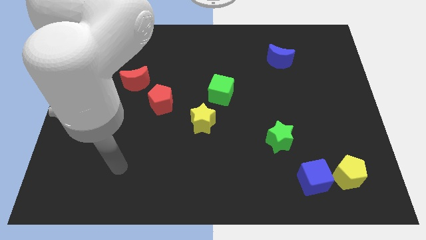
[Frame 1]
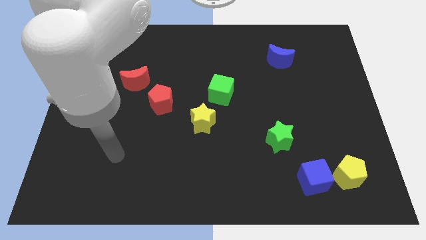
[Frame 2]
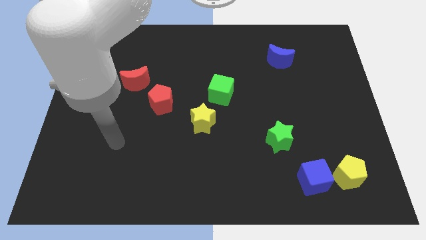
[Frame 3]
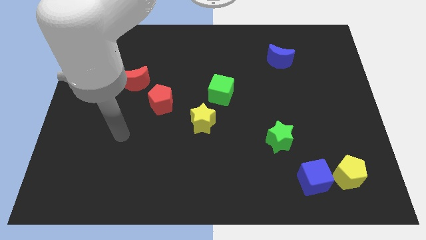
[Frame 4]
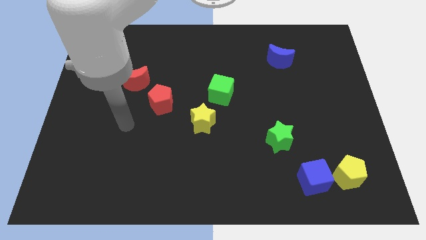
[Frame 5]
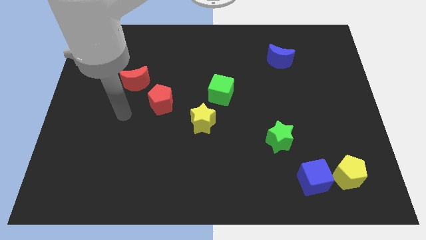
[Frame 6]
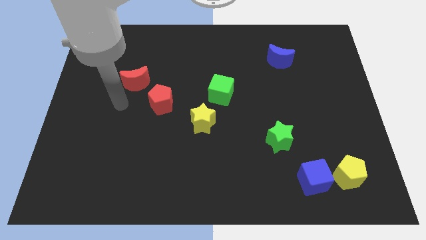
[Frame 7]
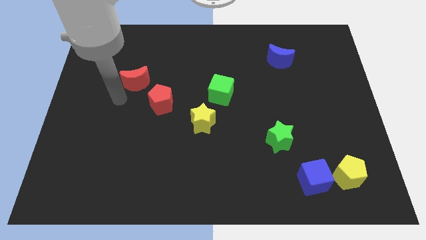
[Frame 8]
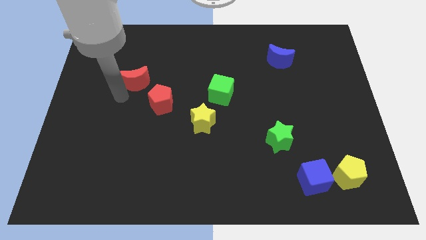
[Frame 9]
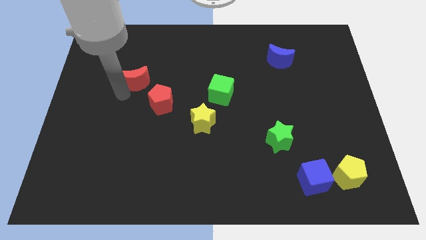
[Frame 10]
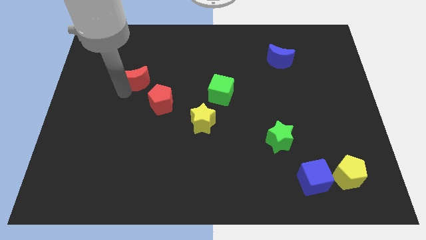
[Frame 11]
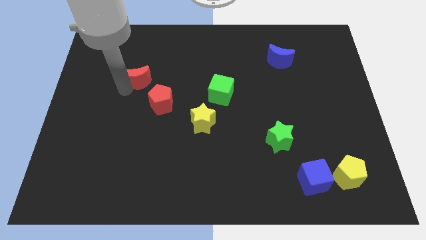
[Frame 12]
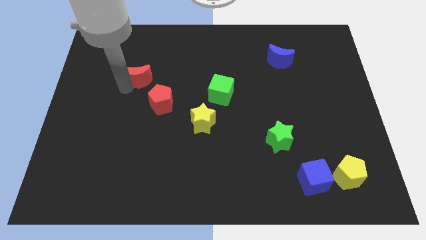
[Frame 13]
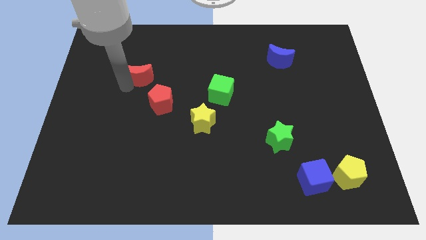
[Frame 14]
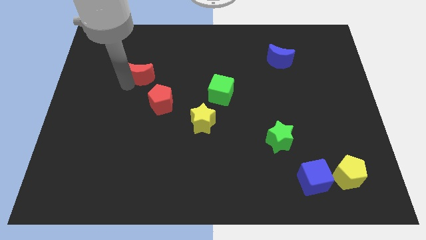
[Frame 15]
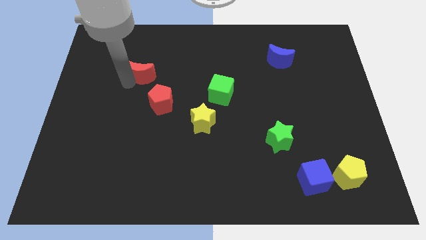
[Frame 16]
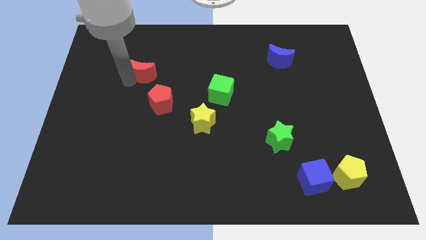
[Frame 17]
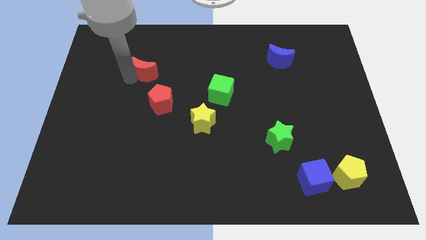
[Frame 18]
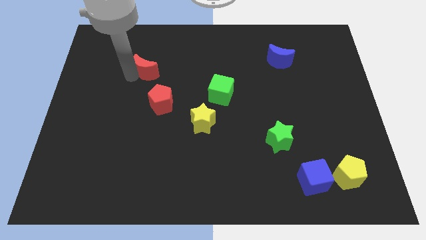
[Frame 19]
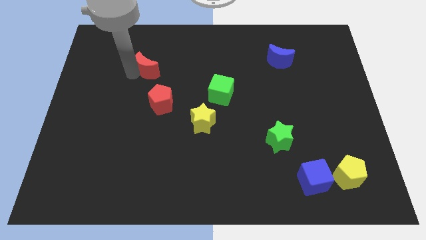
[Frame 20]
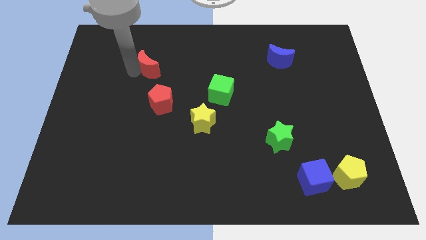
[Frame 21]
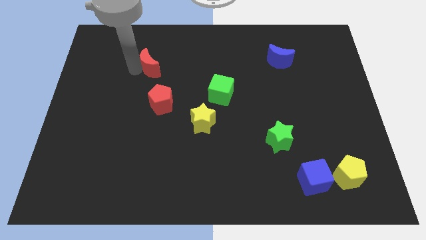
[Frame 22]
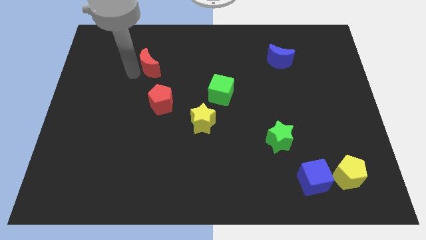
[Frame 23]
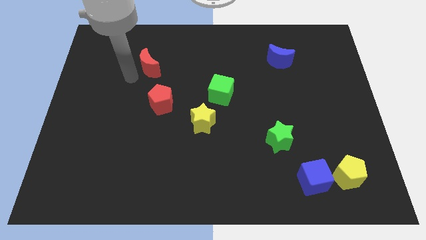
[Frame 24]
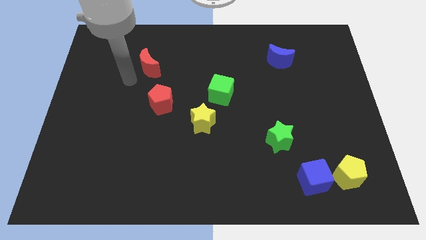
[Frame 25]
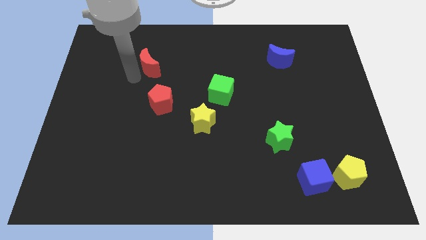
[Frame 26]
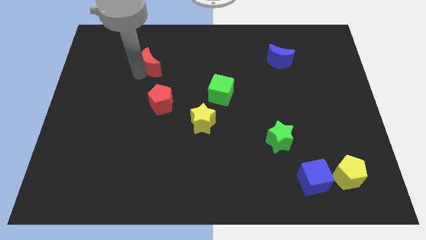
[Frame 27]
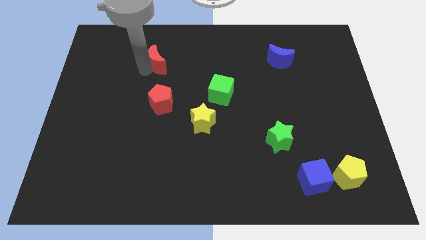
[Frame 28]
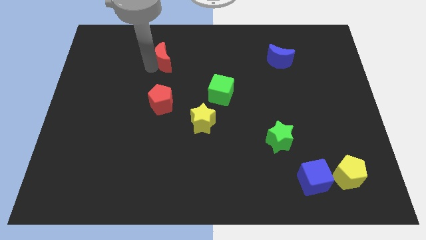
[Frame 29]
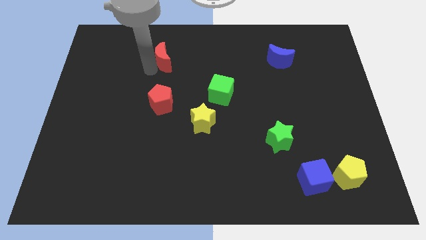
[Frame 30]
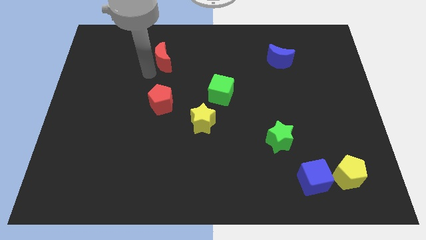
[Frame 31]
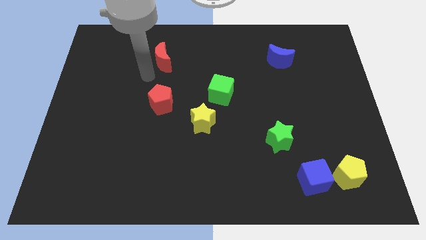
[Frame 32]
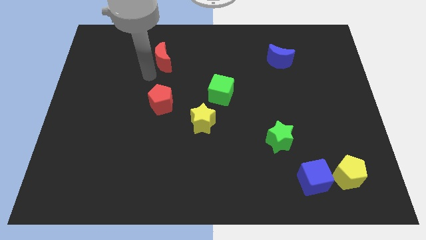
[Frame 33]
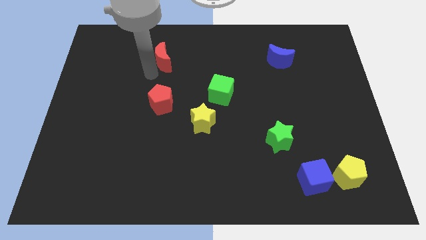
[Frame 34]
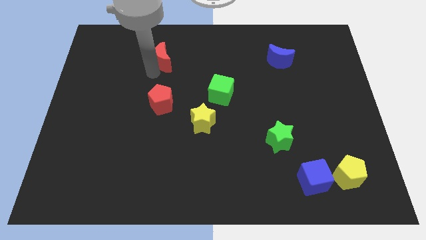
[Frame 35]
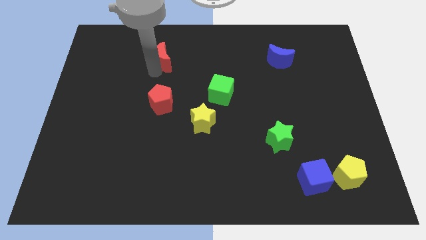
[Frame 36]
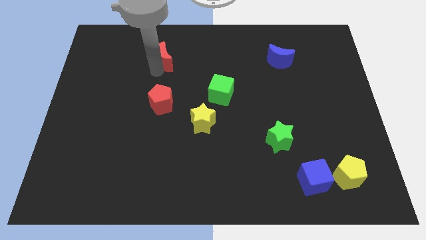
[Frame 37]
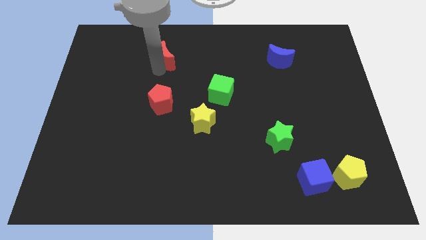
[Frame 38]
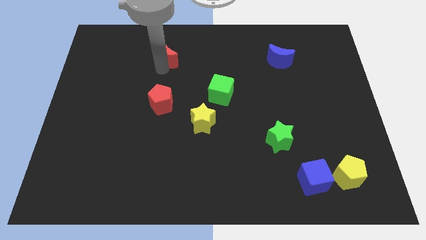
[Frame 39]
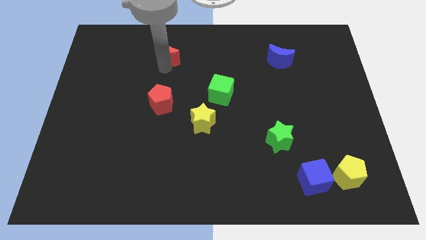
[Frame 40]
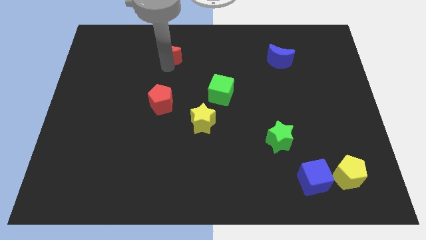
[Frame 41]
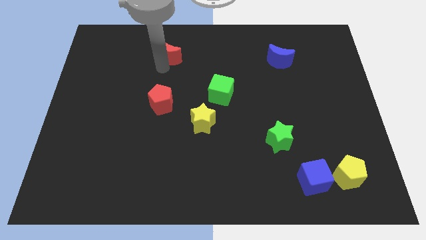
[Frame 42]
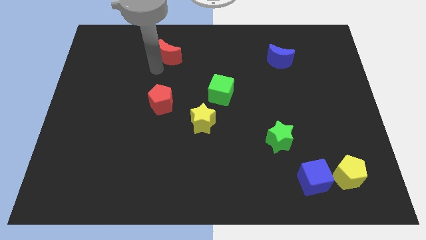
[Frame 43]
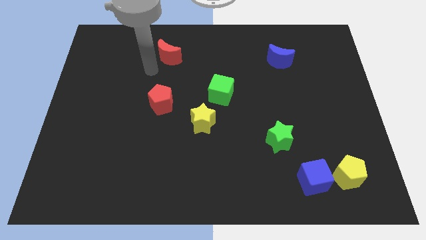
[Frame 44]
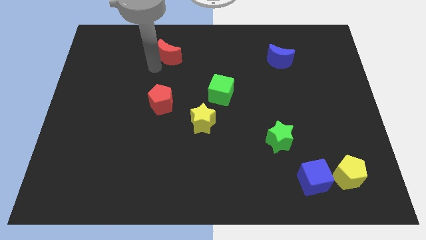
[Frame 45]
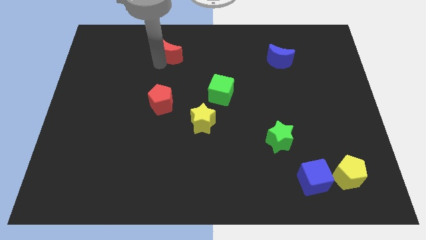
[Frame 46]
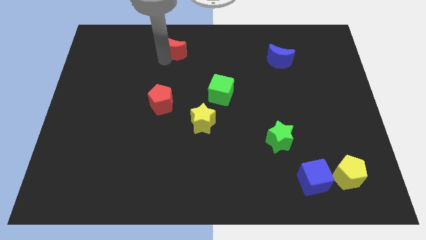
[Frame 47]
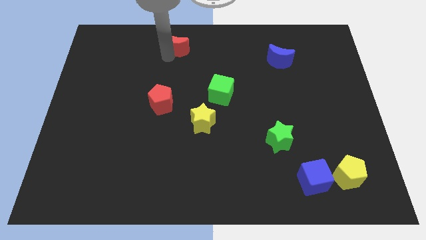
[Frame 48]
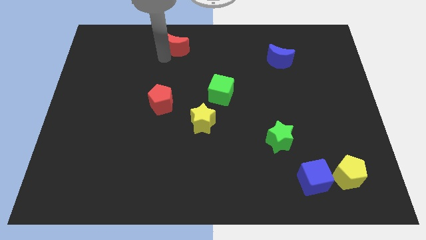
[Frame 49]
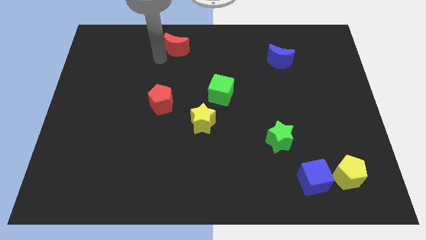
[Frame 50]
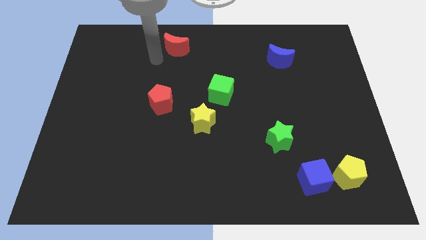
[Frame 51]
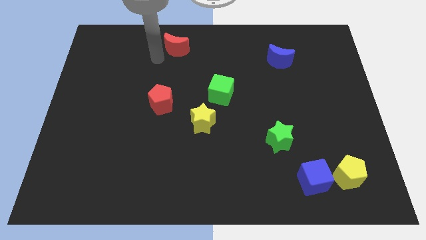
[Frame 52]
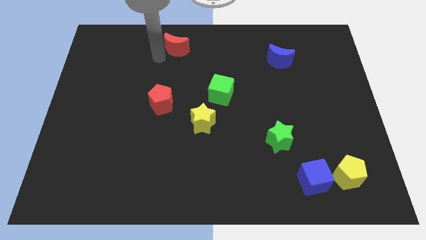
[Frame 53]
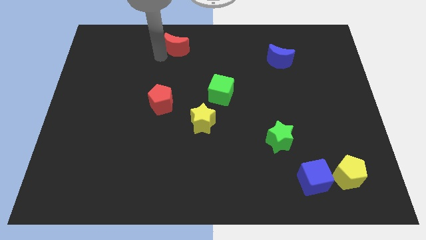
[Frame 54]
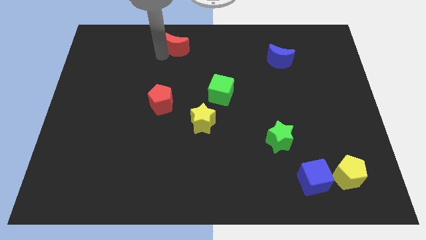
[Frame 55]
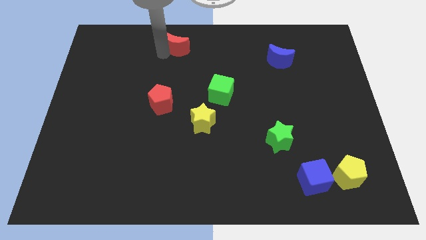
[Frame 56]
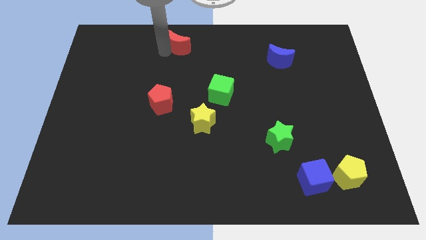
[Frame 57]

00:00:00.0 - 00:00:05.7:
slide the red moon to the towards your base

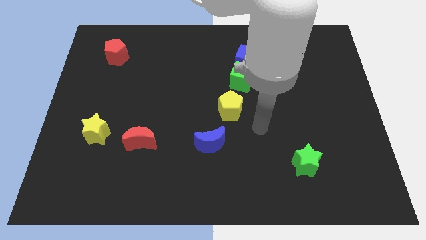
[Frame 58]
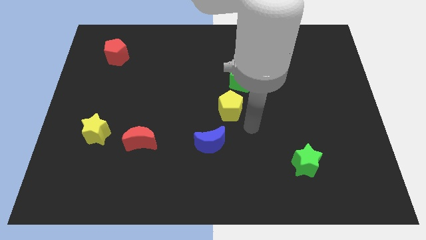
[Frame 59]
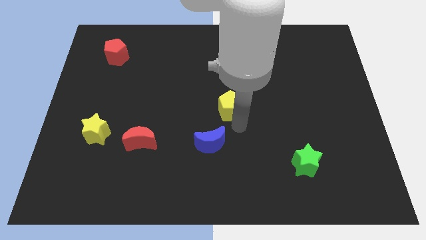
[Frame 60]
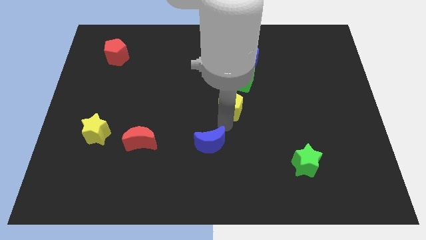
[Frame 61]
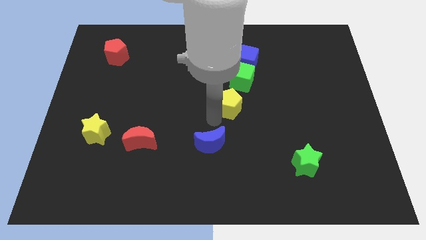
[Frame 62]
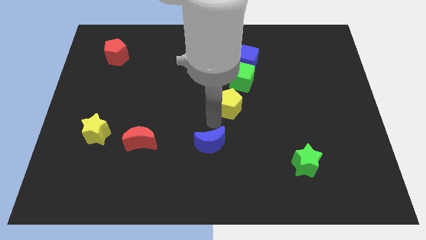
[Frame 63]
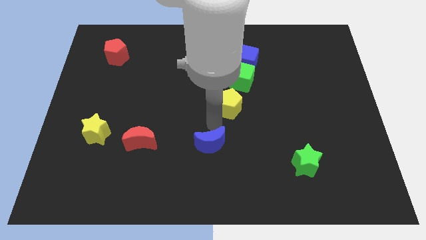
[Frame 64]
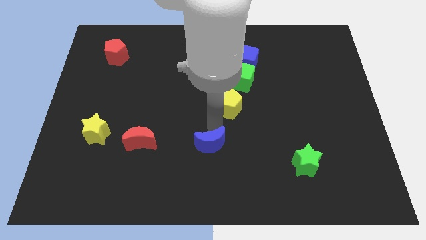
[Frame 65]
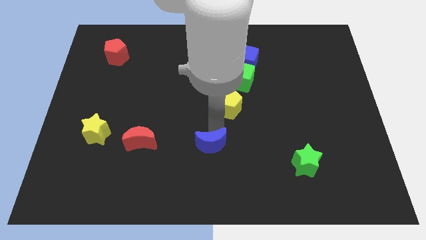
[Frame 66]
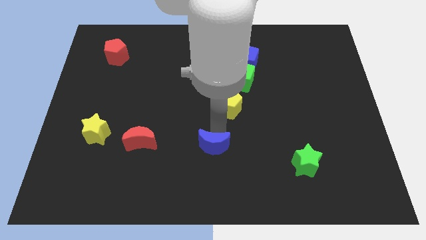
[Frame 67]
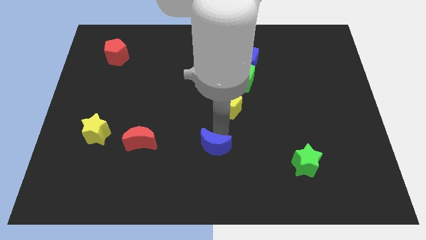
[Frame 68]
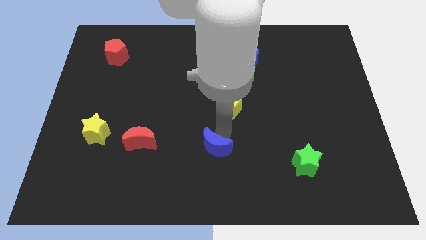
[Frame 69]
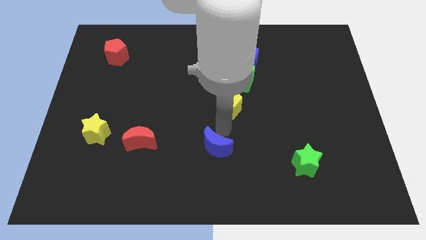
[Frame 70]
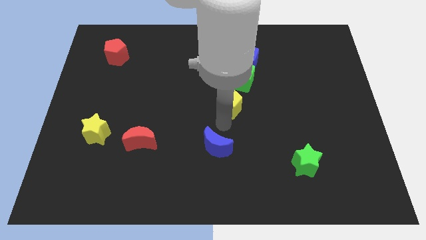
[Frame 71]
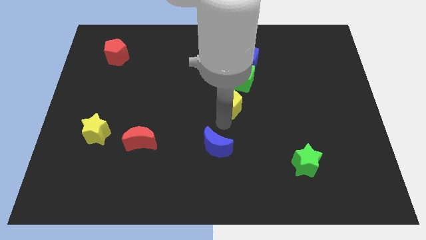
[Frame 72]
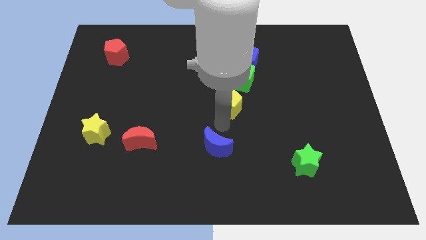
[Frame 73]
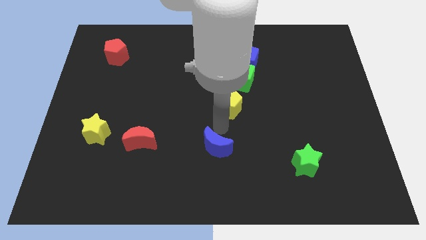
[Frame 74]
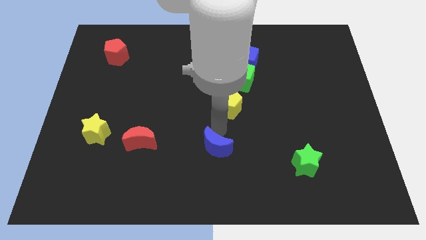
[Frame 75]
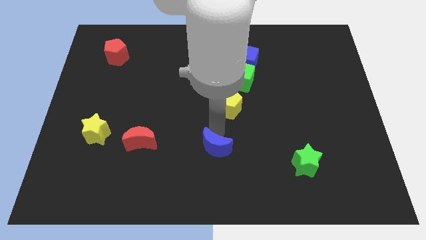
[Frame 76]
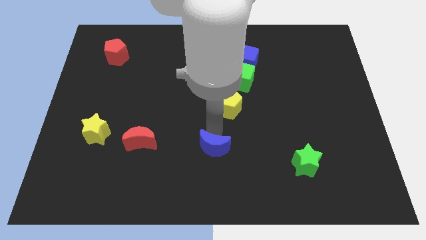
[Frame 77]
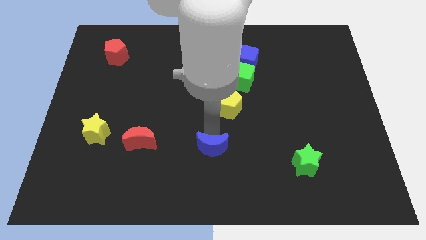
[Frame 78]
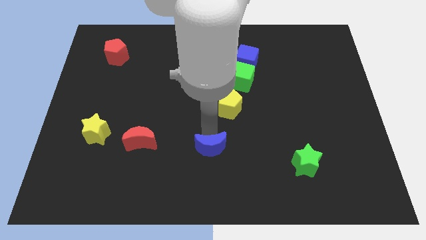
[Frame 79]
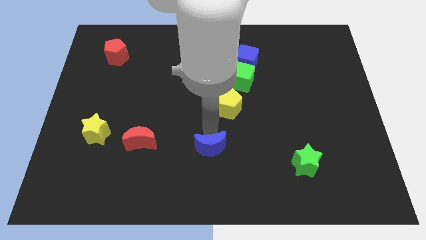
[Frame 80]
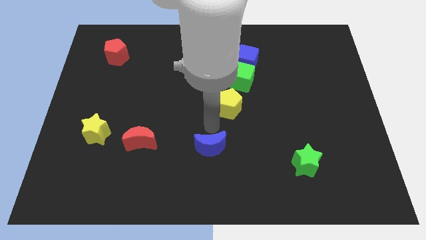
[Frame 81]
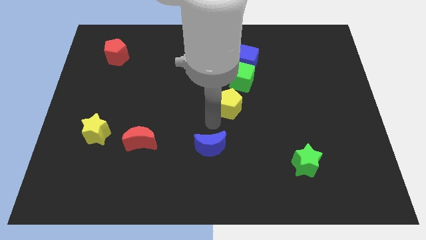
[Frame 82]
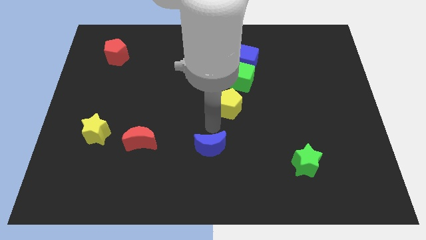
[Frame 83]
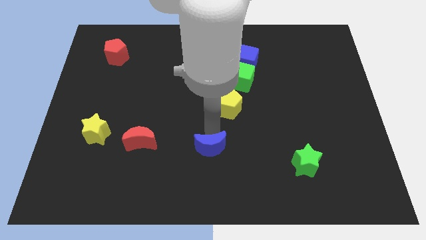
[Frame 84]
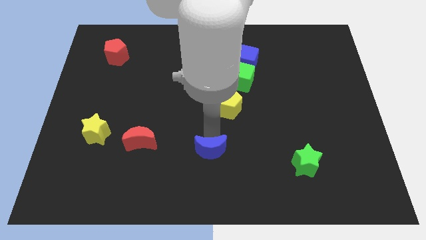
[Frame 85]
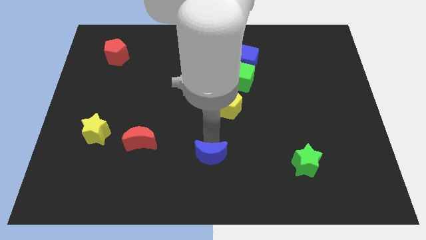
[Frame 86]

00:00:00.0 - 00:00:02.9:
put the blue moon to the bottom side
